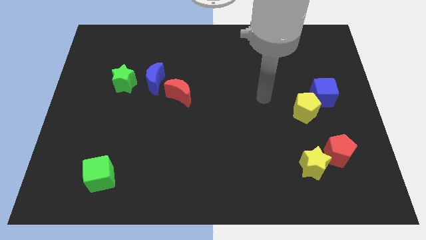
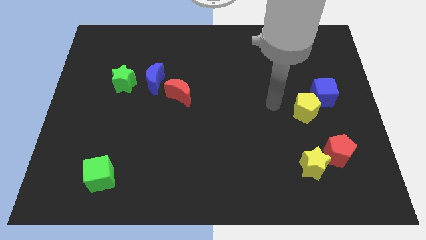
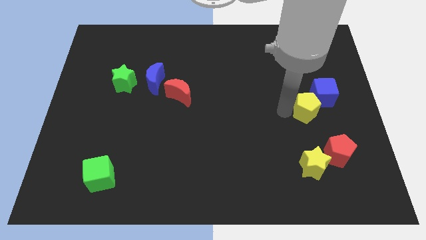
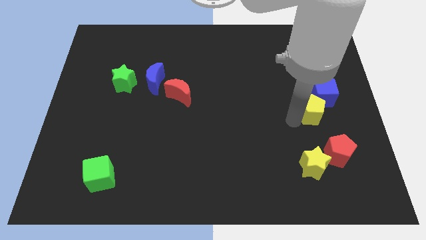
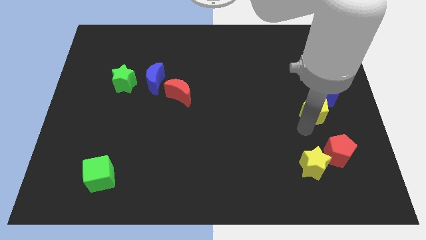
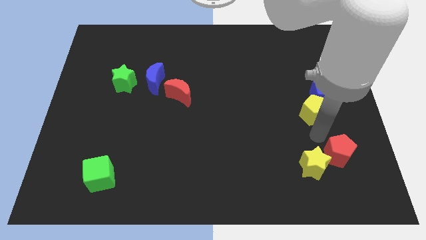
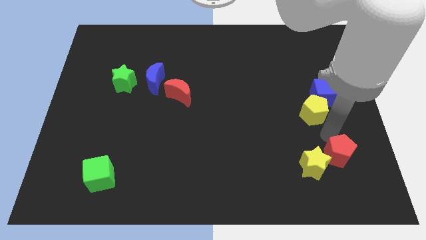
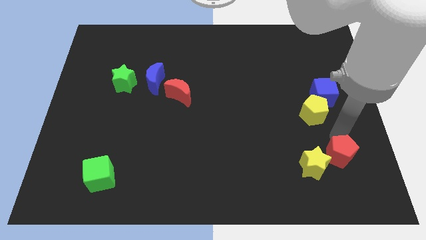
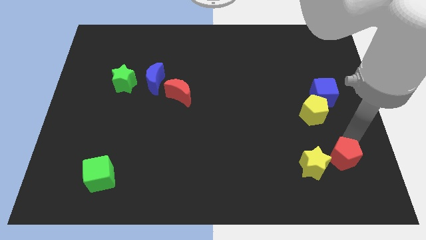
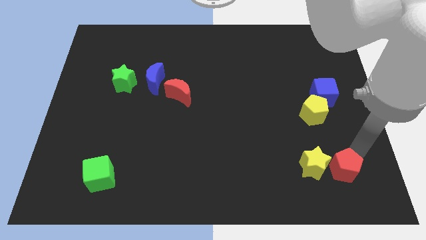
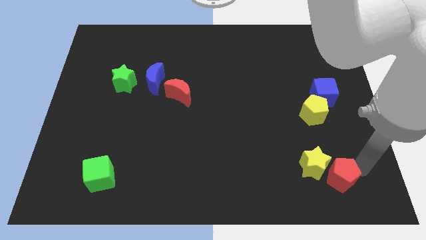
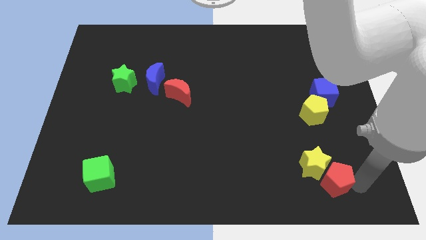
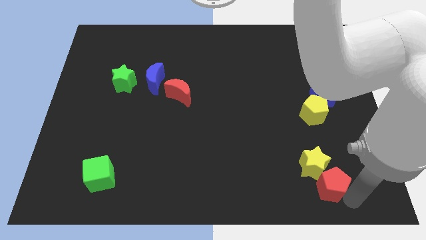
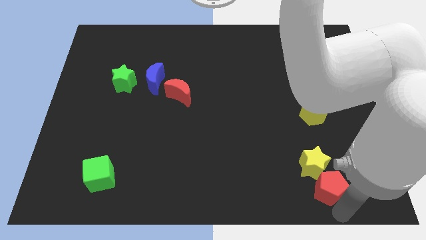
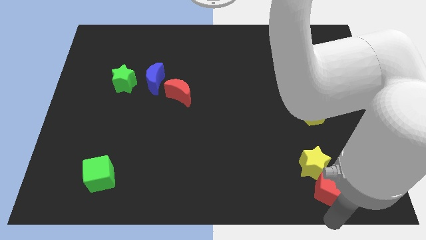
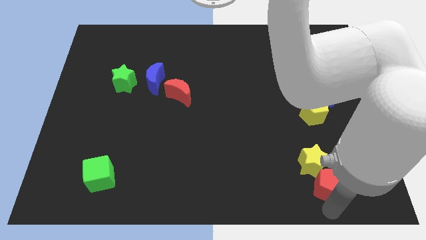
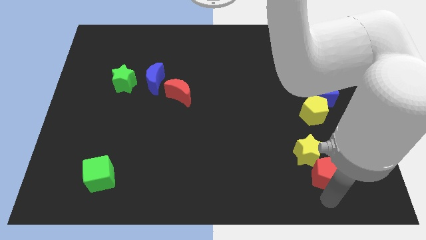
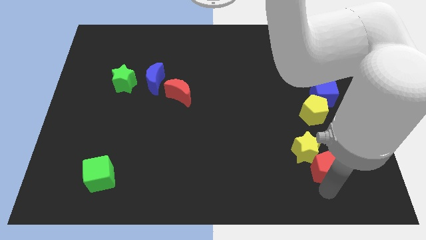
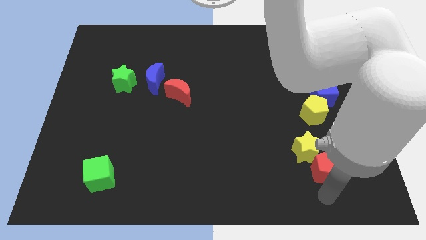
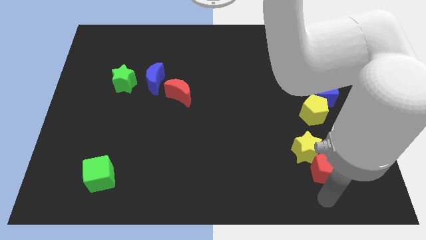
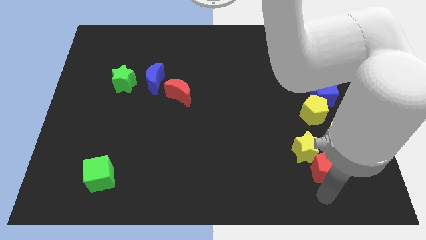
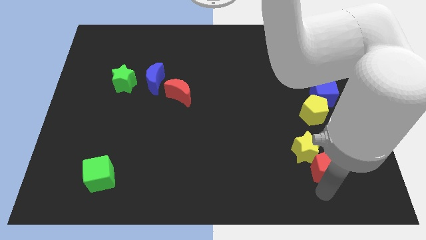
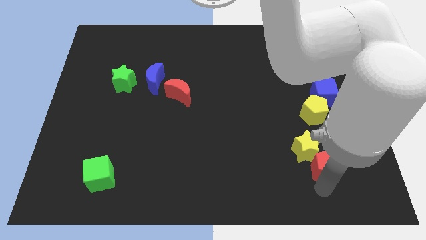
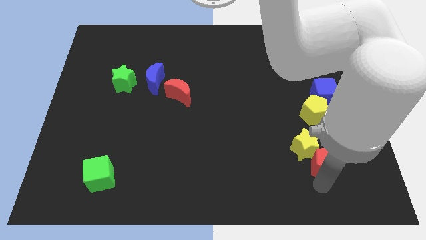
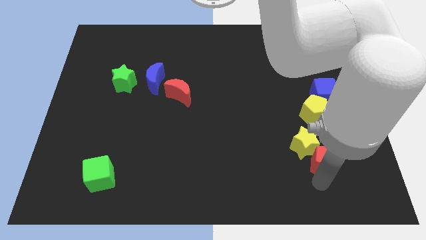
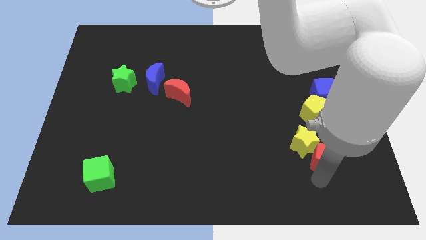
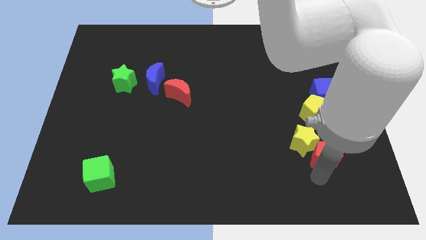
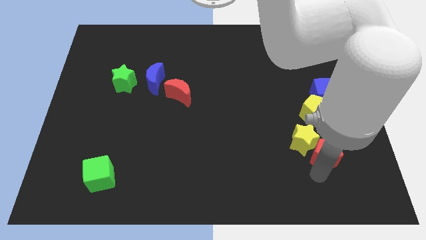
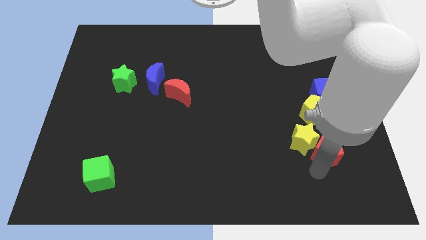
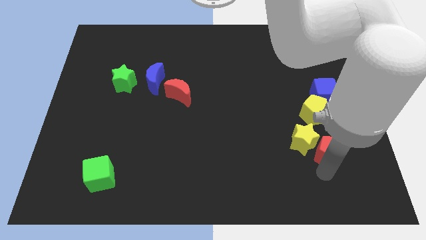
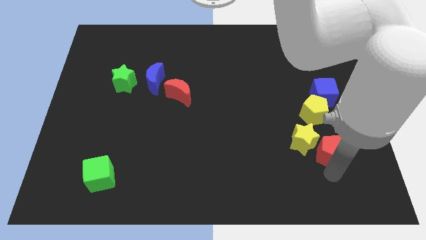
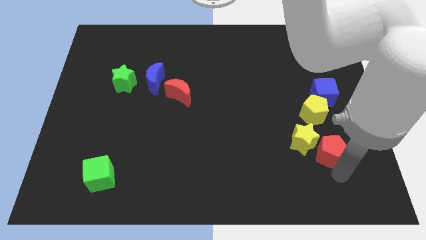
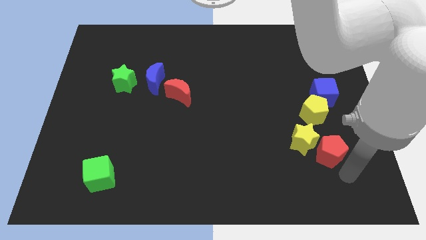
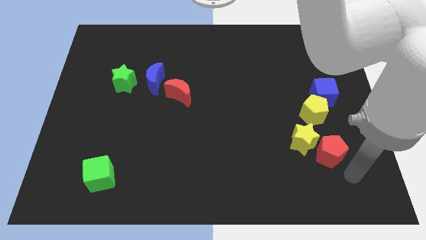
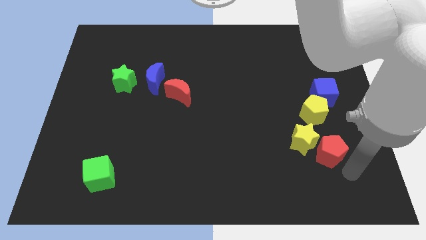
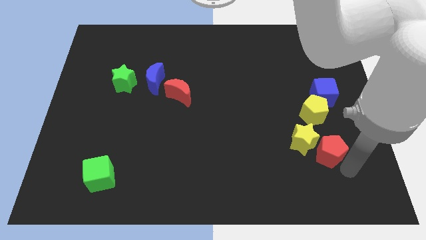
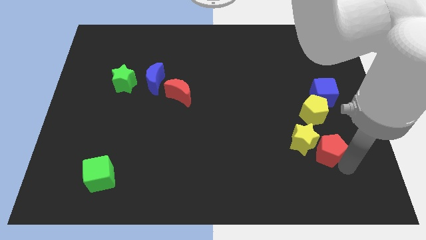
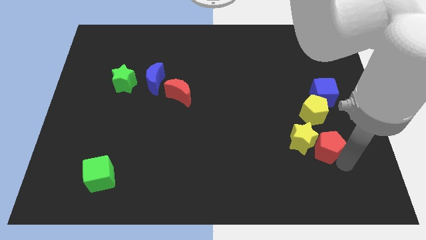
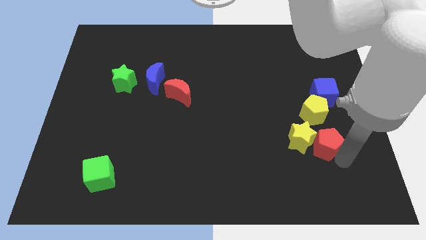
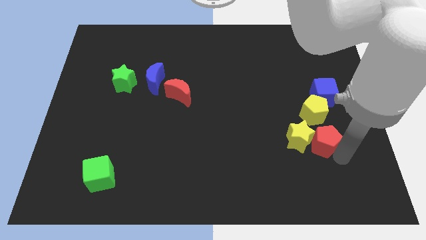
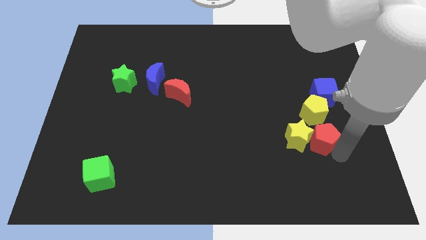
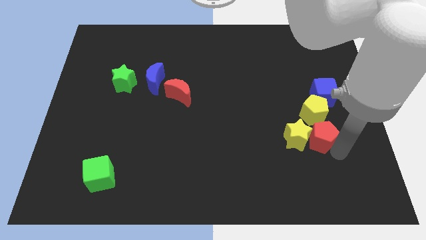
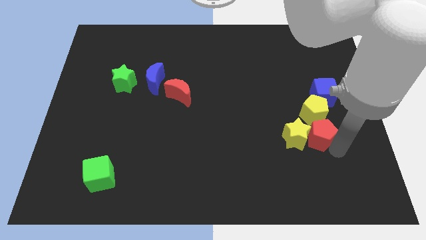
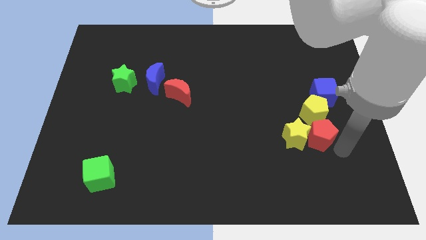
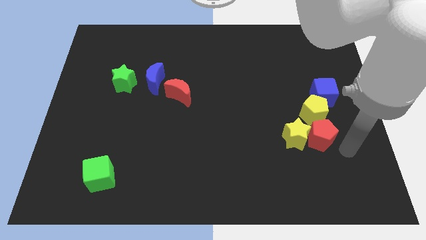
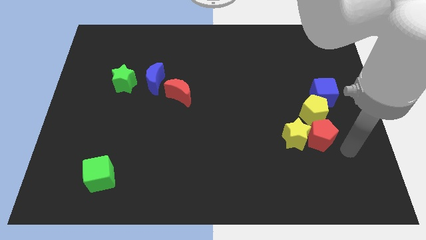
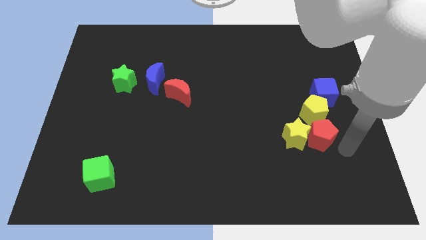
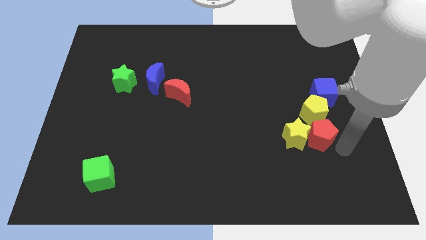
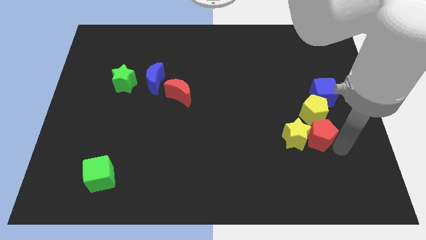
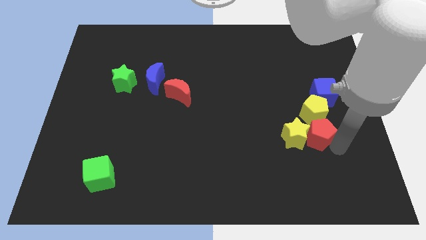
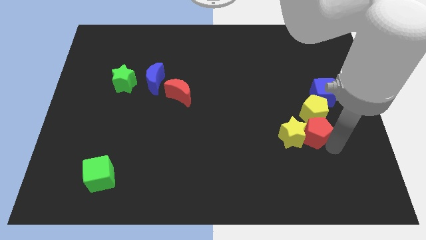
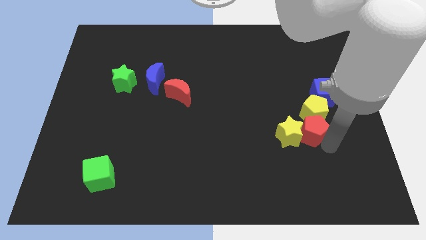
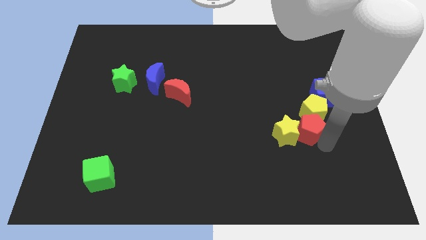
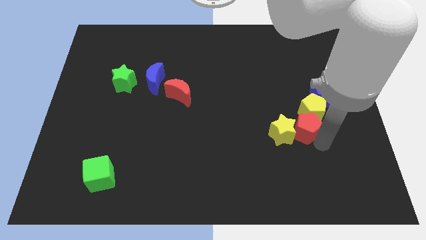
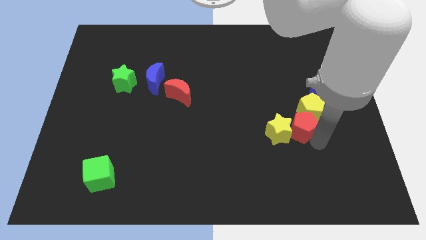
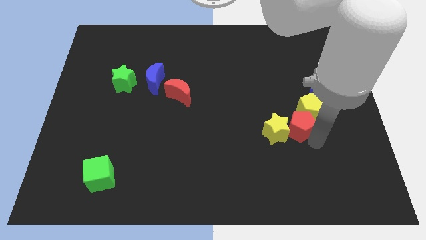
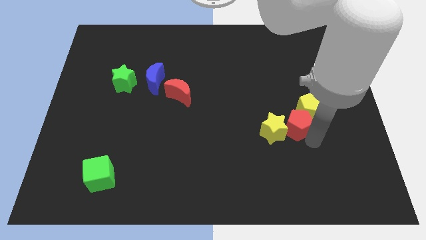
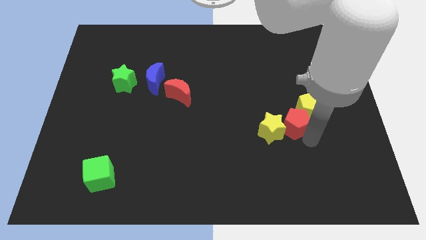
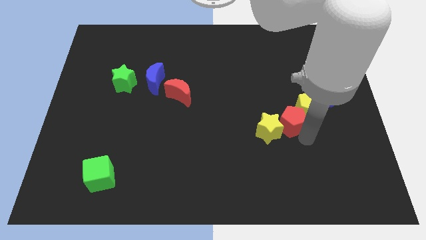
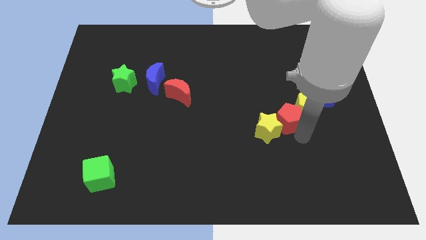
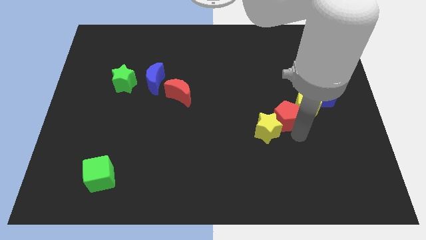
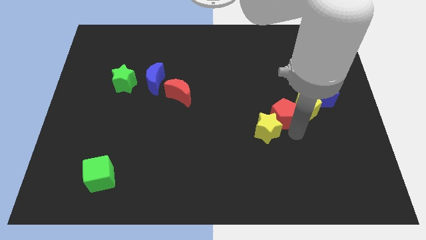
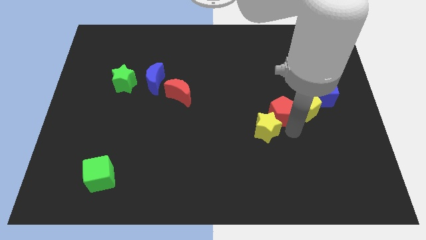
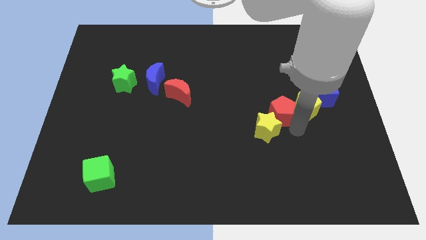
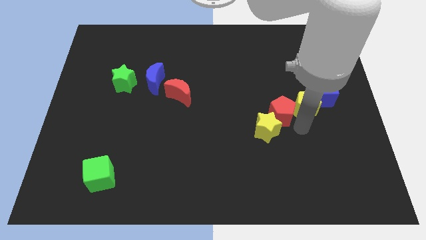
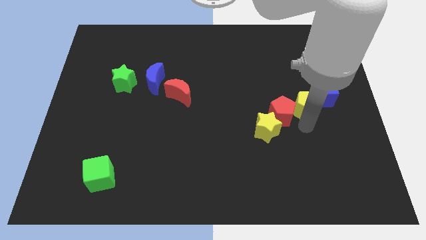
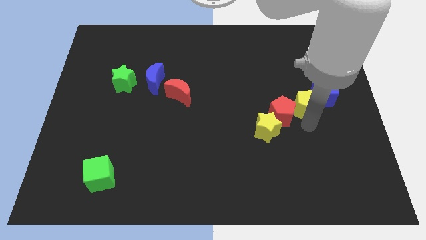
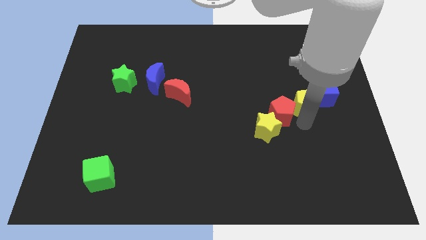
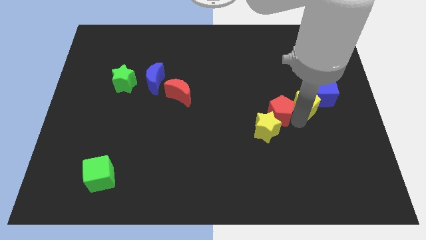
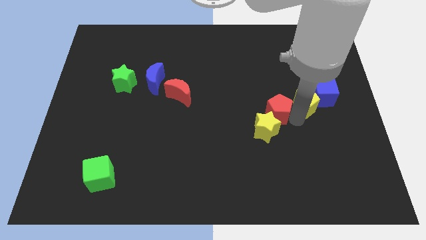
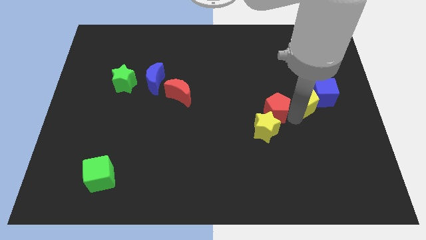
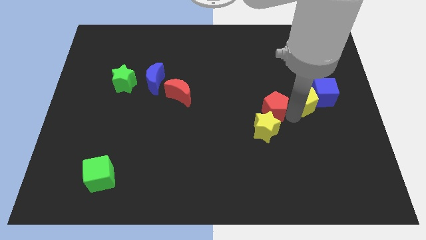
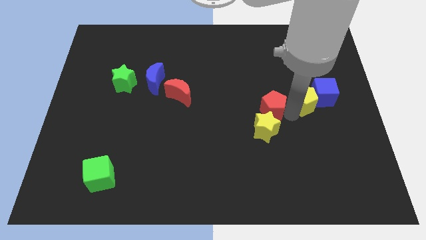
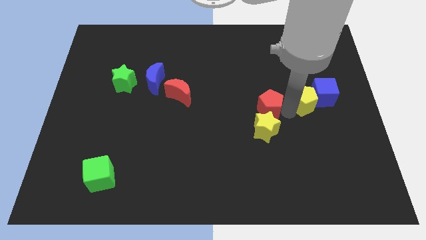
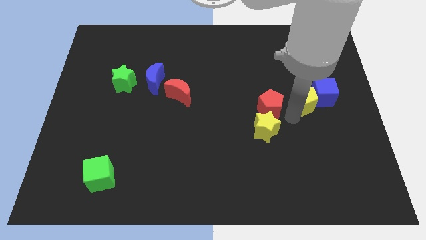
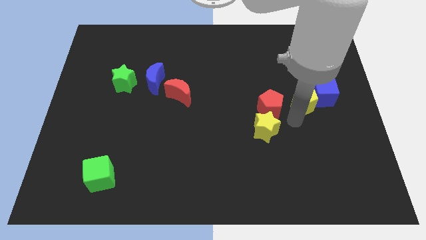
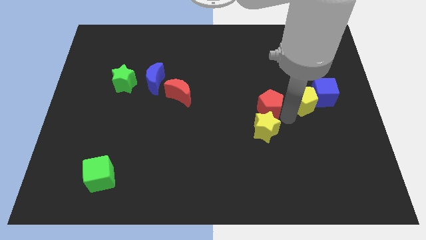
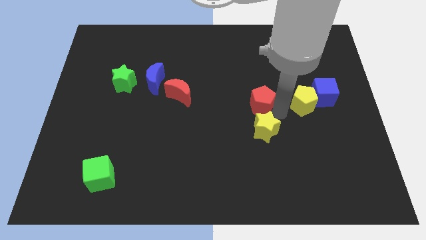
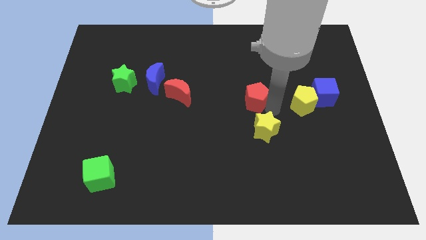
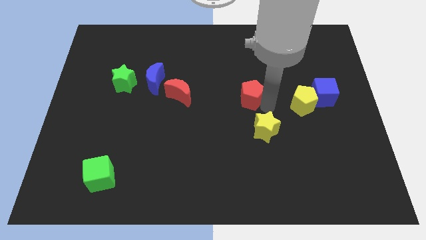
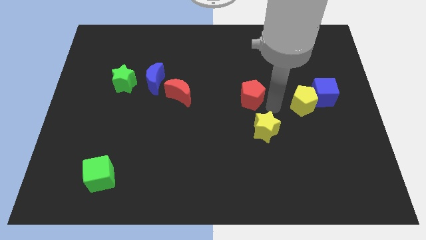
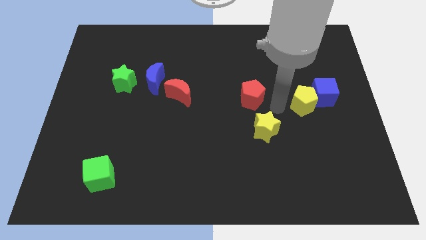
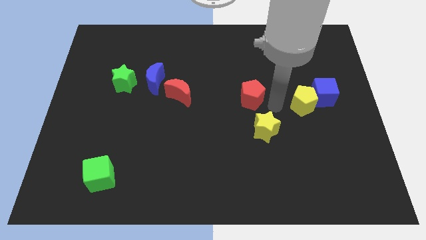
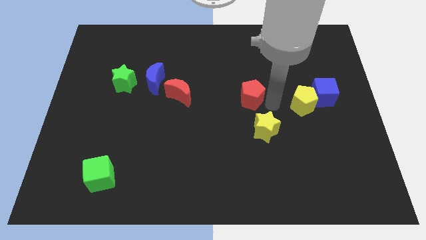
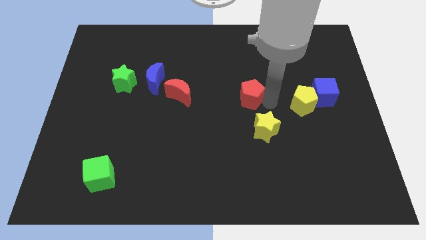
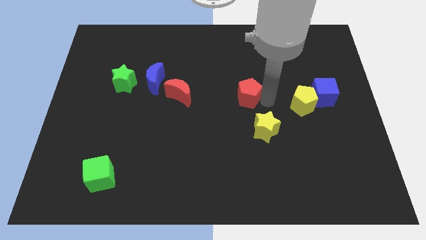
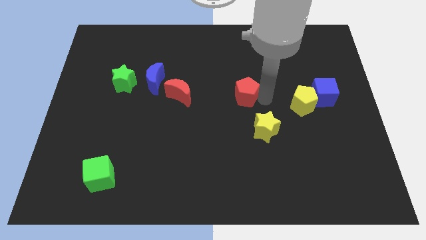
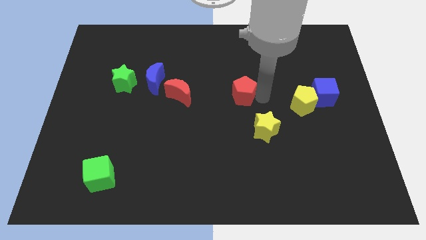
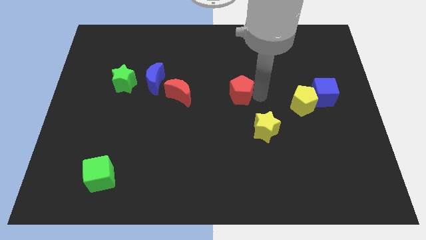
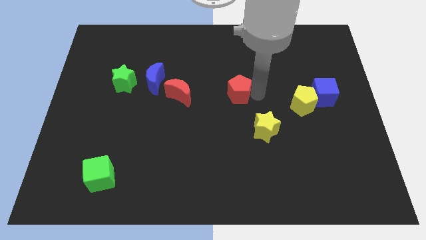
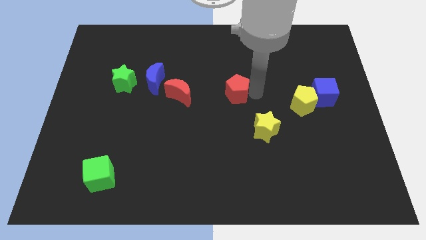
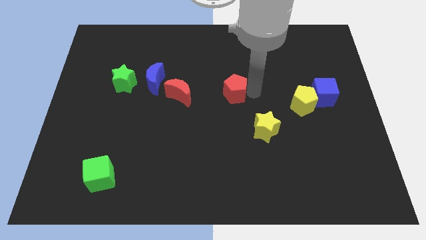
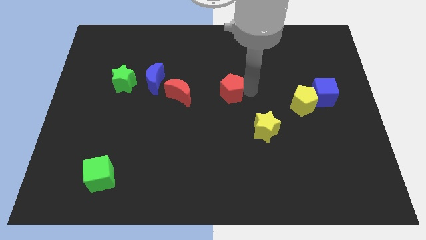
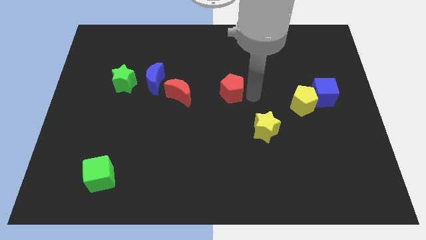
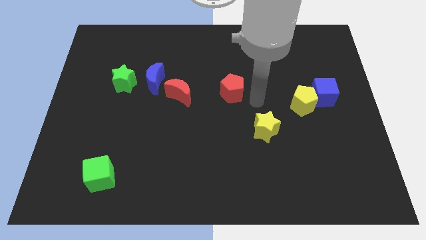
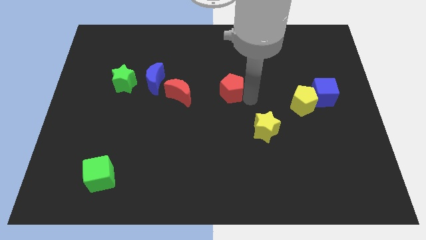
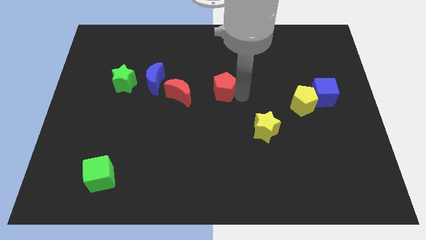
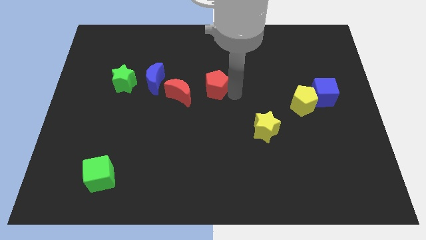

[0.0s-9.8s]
slide the red pentagon diagonally up and to the right of the red moon
